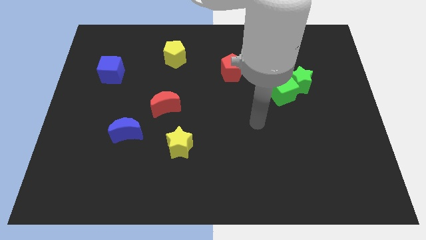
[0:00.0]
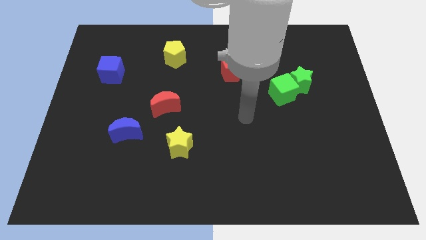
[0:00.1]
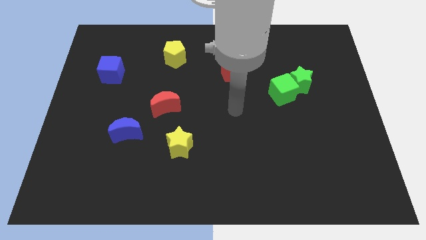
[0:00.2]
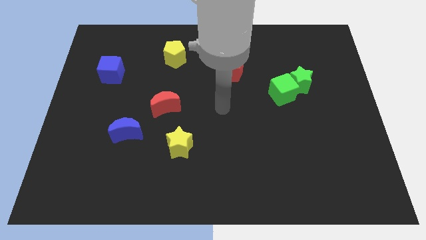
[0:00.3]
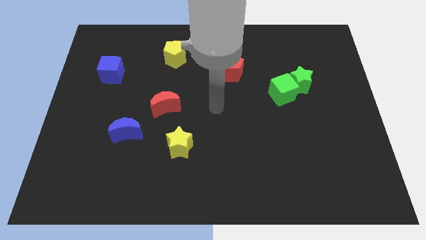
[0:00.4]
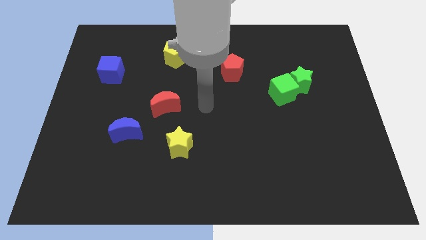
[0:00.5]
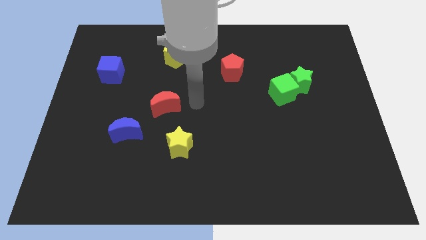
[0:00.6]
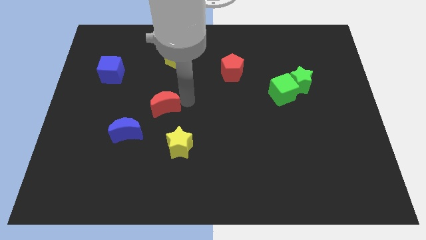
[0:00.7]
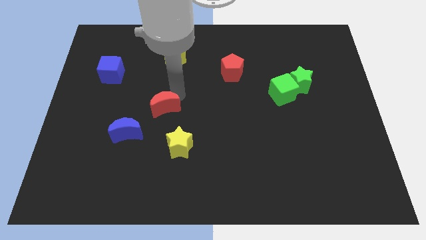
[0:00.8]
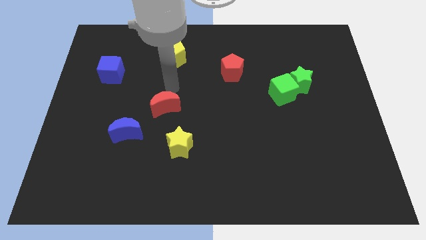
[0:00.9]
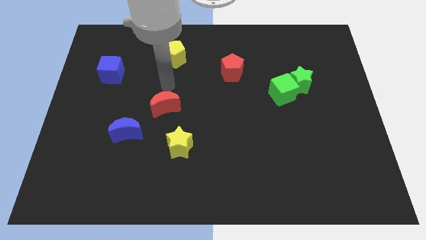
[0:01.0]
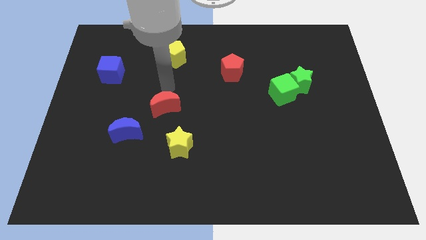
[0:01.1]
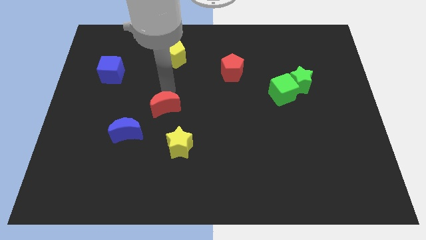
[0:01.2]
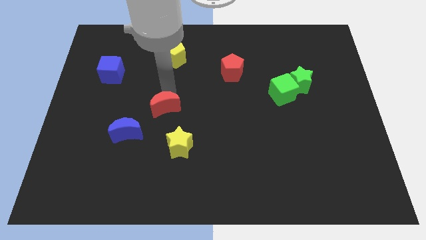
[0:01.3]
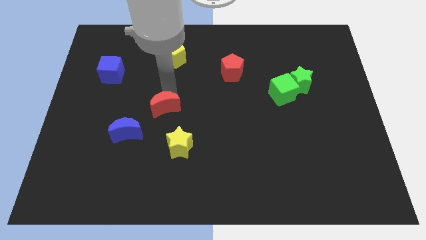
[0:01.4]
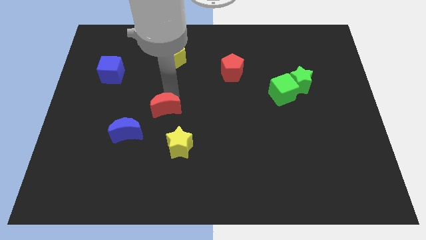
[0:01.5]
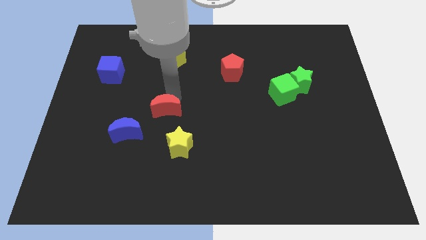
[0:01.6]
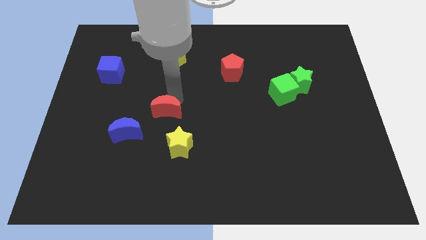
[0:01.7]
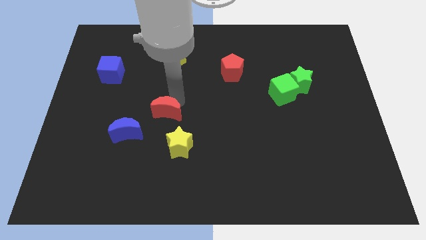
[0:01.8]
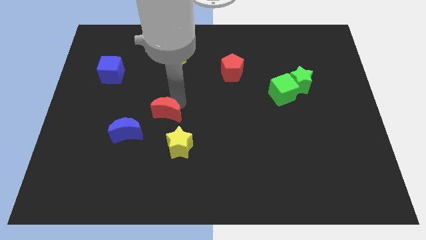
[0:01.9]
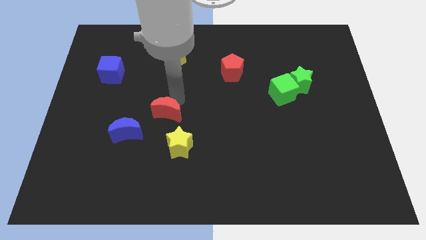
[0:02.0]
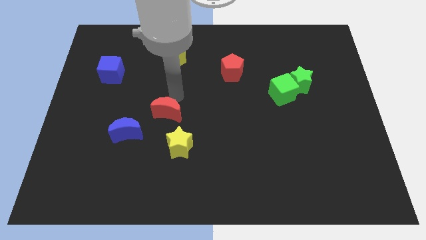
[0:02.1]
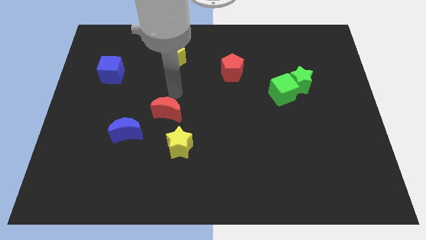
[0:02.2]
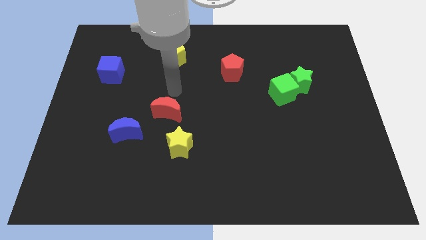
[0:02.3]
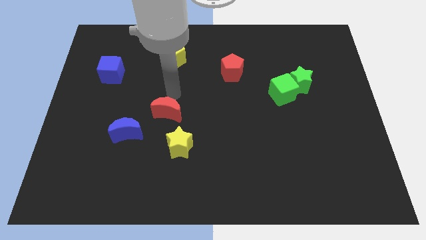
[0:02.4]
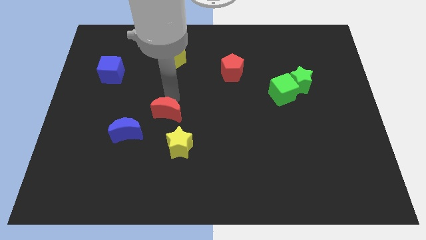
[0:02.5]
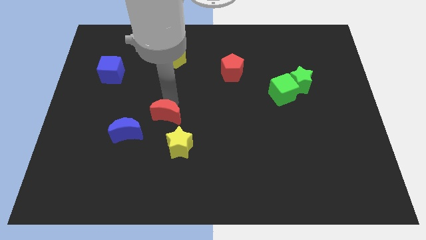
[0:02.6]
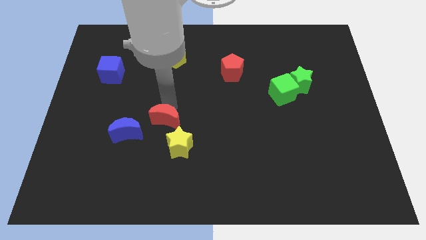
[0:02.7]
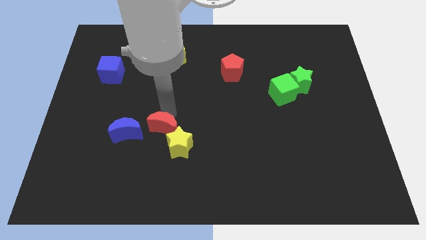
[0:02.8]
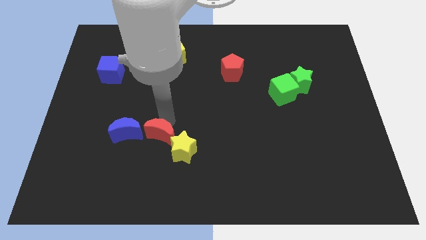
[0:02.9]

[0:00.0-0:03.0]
slightly slide the red moon down

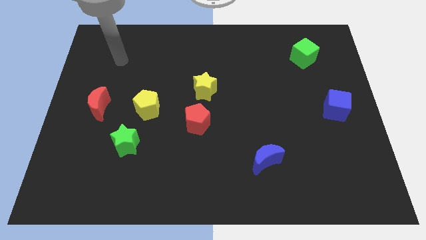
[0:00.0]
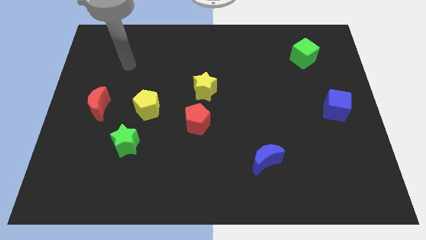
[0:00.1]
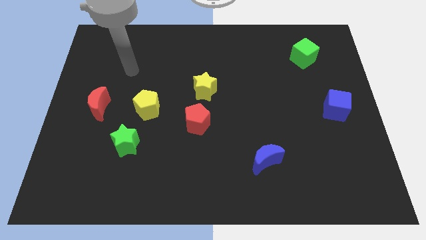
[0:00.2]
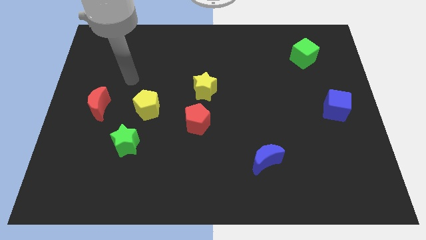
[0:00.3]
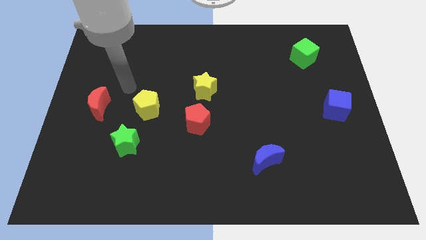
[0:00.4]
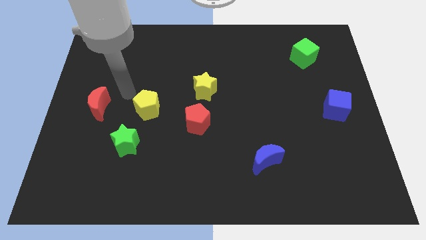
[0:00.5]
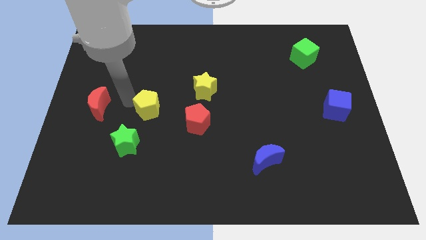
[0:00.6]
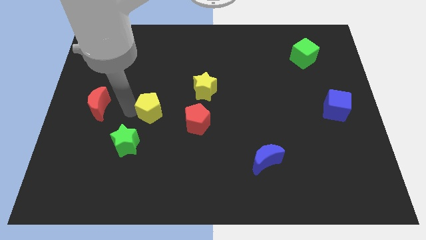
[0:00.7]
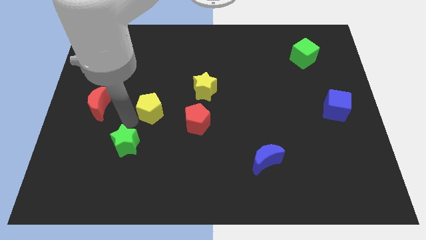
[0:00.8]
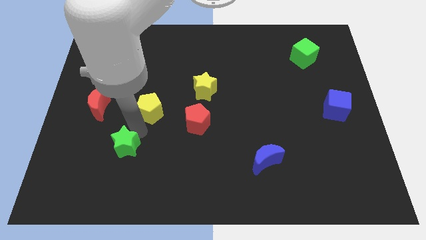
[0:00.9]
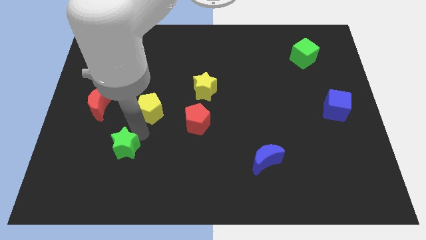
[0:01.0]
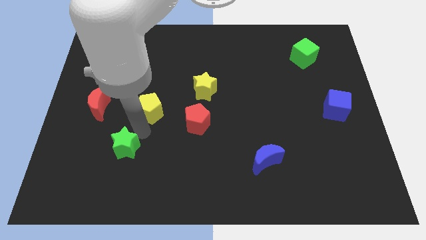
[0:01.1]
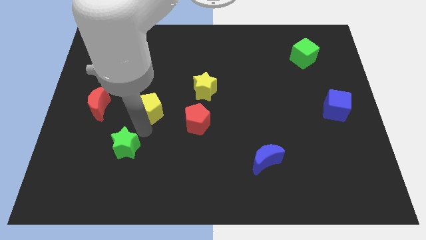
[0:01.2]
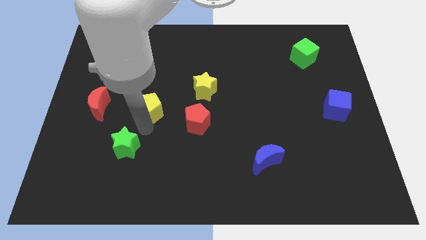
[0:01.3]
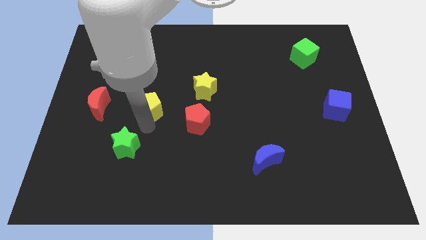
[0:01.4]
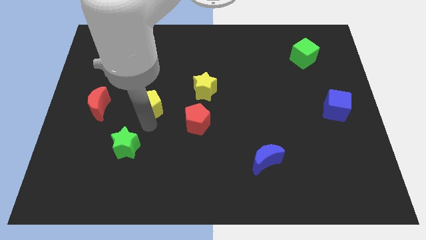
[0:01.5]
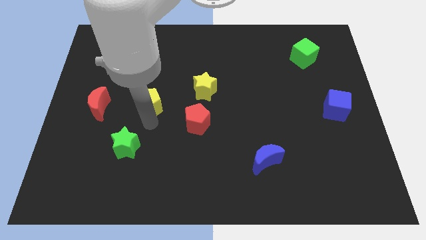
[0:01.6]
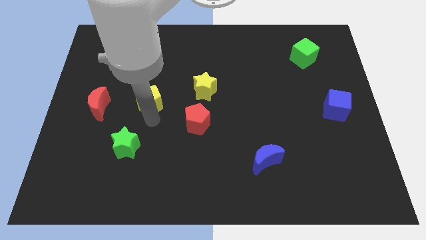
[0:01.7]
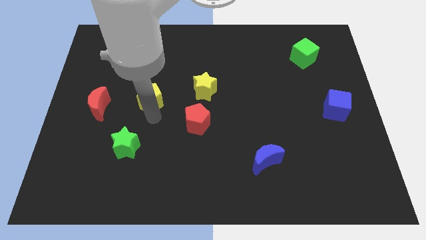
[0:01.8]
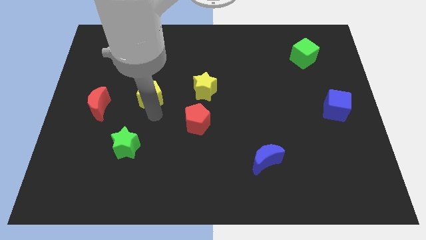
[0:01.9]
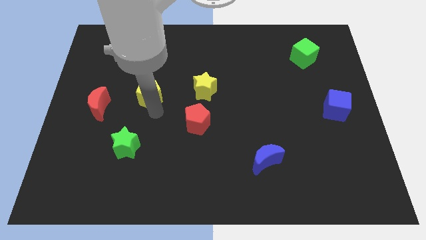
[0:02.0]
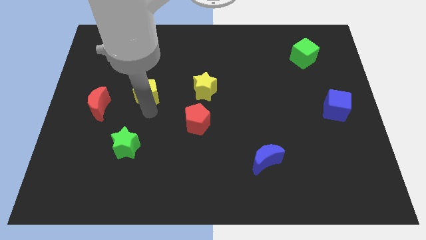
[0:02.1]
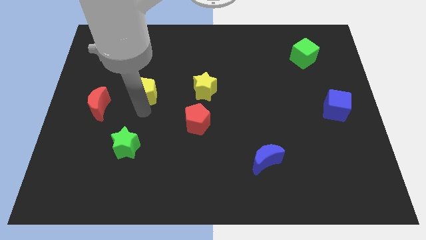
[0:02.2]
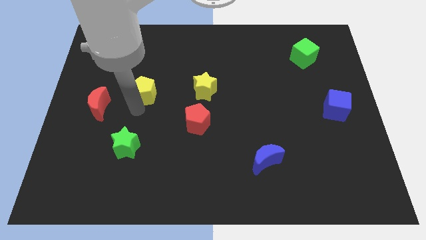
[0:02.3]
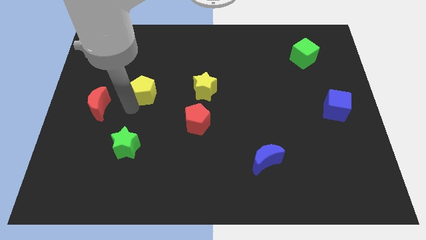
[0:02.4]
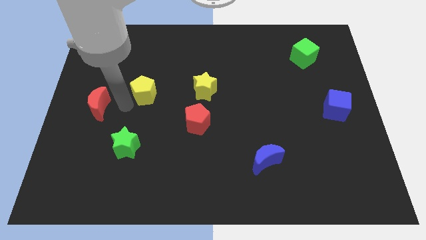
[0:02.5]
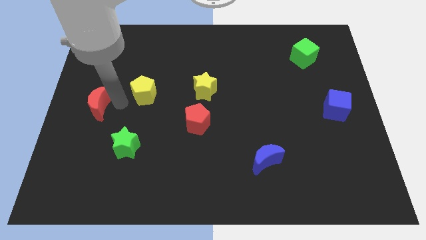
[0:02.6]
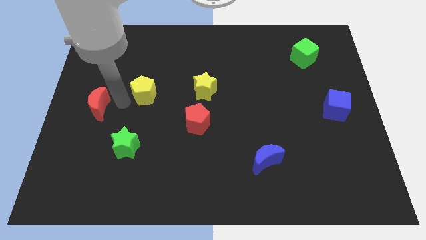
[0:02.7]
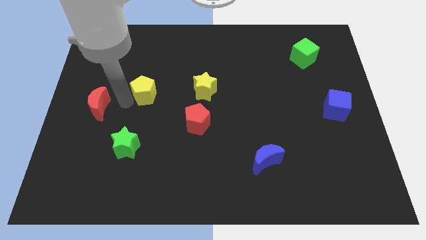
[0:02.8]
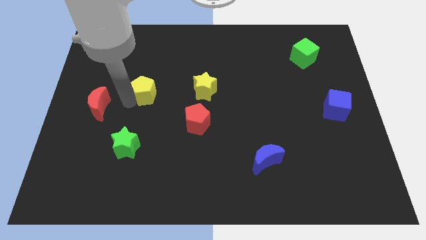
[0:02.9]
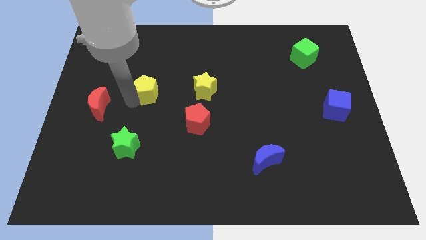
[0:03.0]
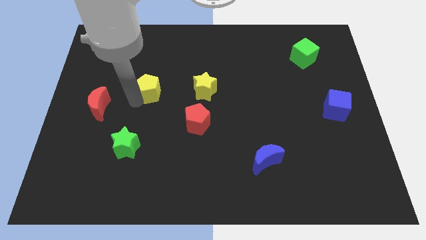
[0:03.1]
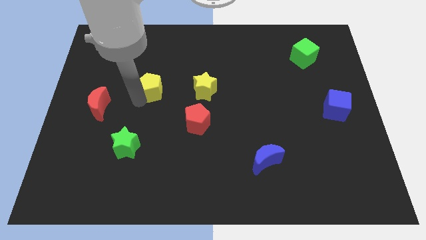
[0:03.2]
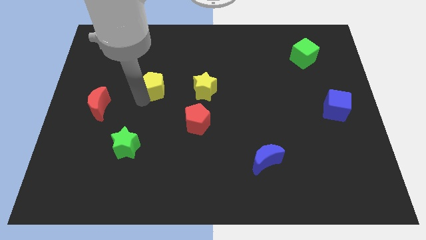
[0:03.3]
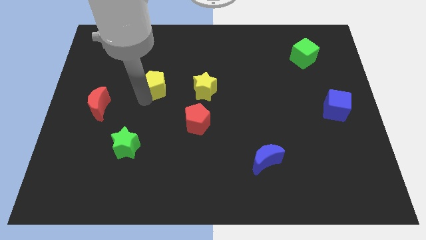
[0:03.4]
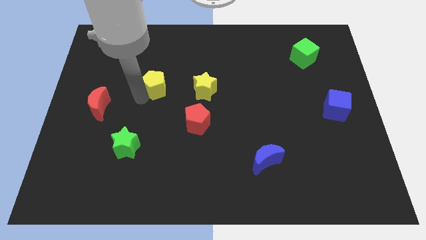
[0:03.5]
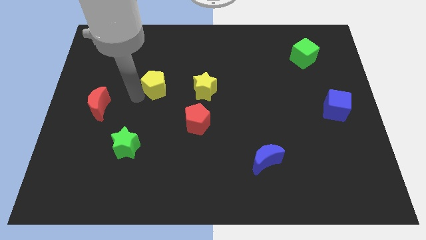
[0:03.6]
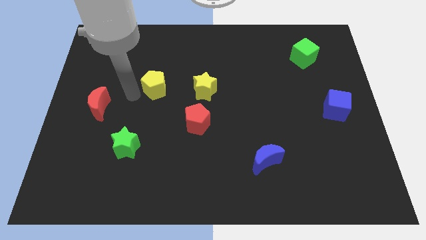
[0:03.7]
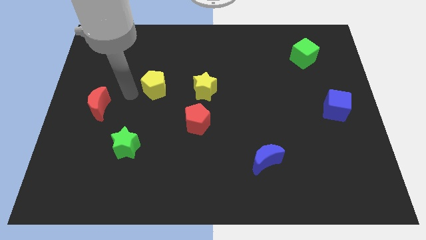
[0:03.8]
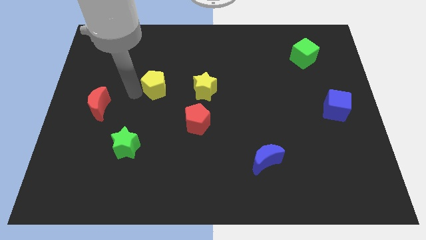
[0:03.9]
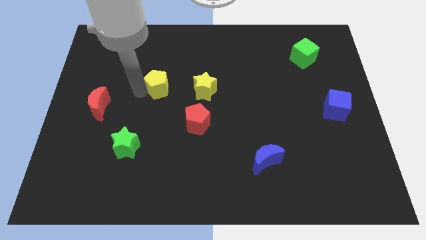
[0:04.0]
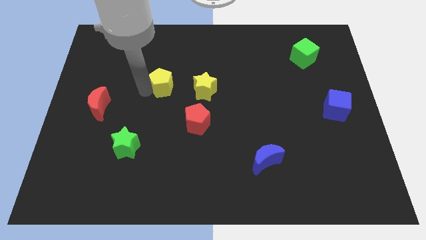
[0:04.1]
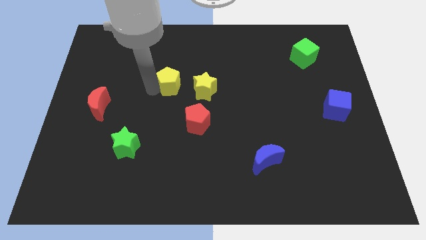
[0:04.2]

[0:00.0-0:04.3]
push the yellow pentagon slightly upwards and then to the right

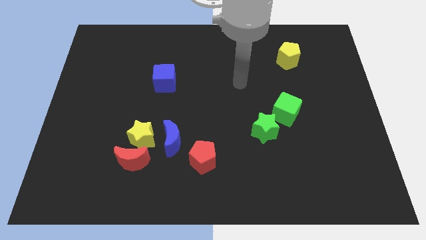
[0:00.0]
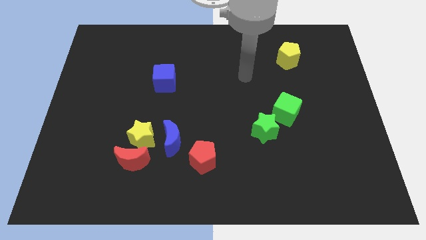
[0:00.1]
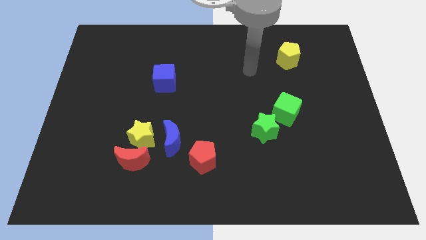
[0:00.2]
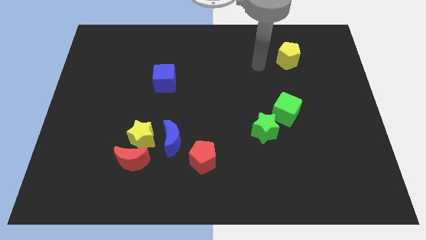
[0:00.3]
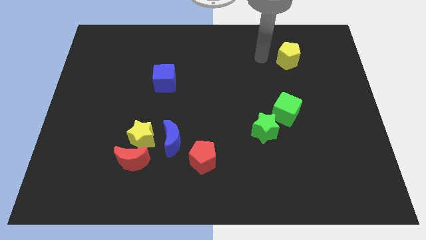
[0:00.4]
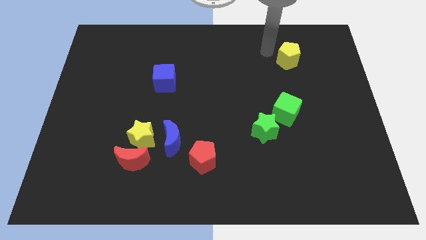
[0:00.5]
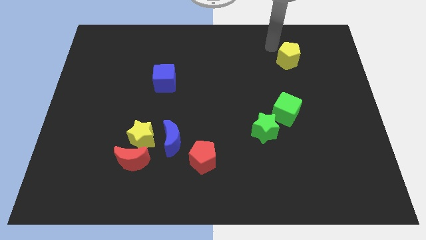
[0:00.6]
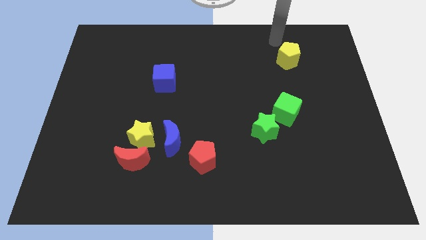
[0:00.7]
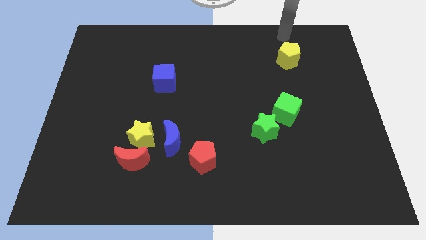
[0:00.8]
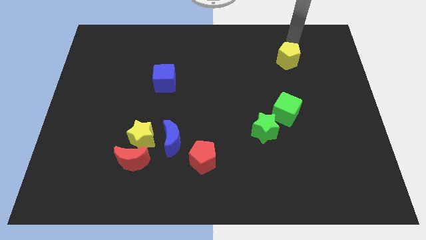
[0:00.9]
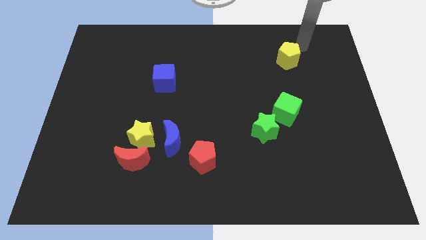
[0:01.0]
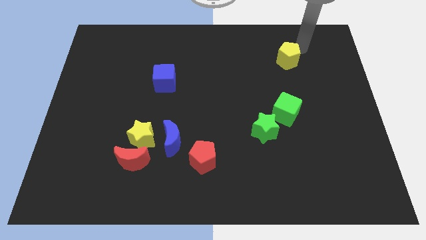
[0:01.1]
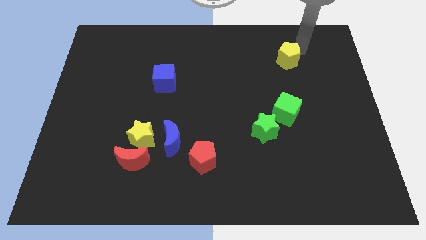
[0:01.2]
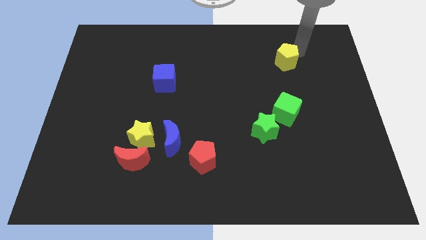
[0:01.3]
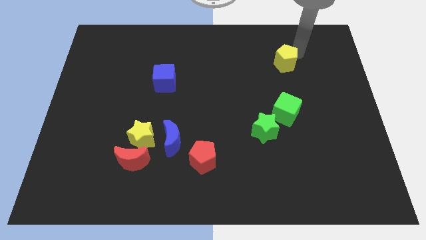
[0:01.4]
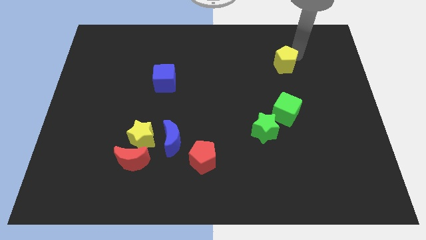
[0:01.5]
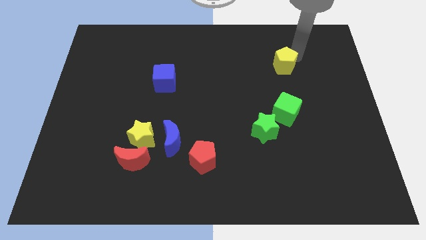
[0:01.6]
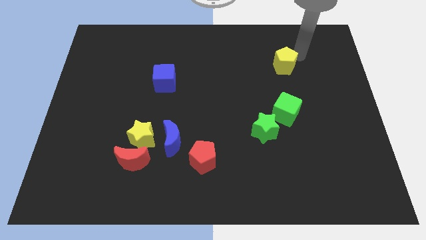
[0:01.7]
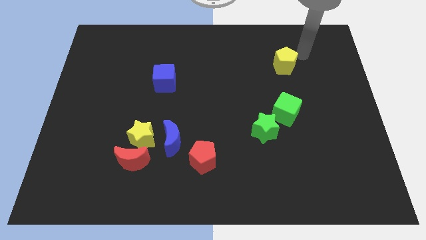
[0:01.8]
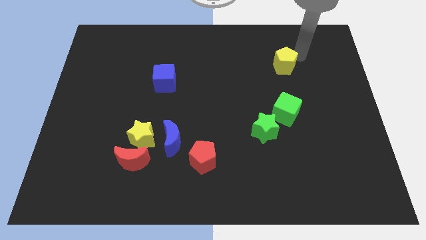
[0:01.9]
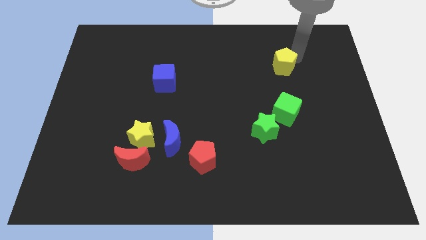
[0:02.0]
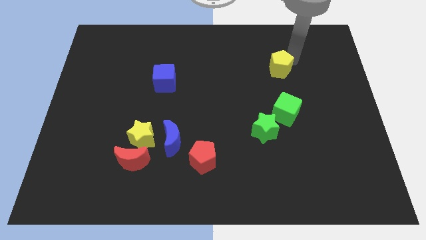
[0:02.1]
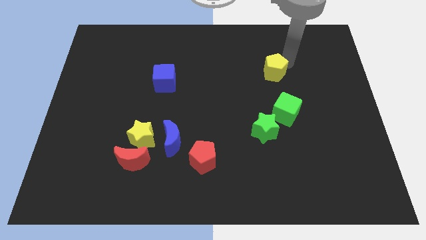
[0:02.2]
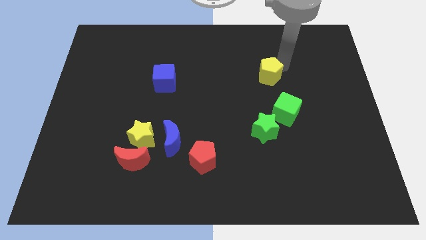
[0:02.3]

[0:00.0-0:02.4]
slightly move the yellow pentagon downwards and then to the left
